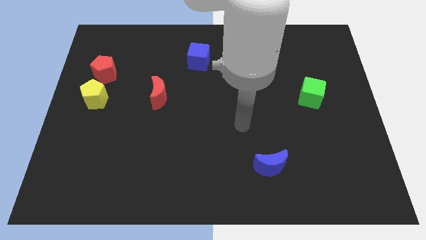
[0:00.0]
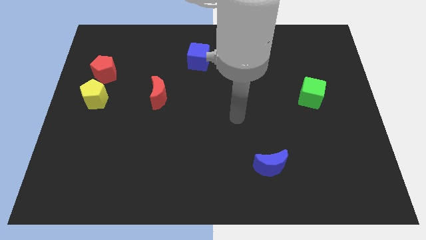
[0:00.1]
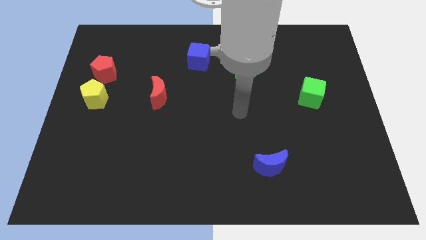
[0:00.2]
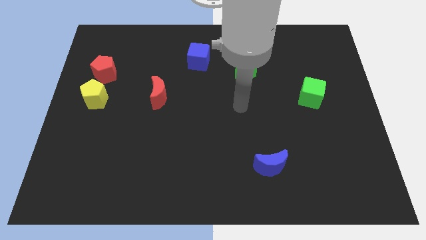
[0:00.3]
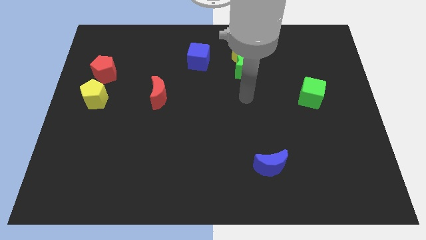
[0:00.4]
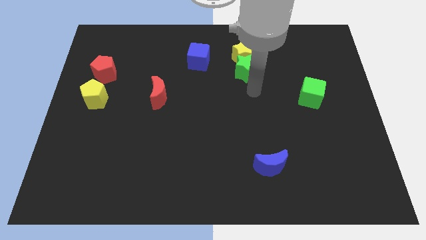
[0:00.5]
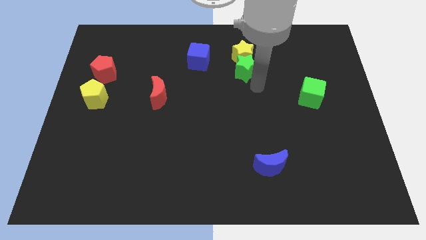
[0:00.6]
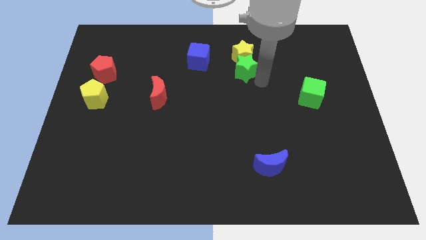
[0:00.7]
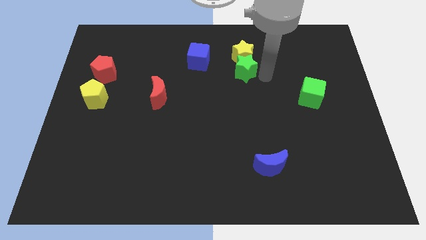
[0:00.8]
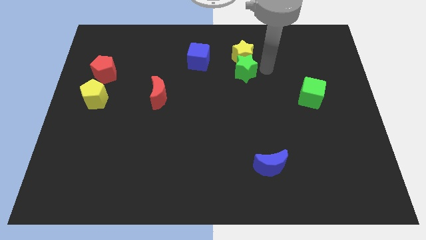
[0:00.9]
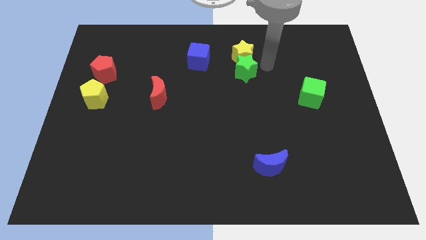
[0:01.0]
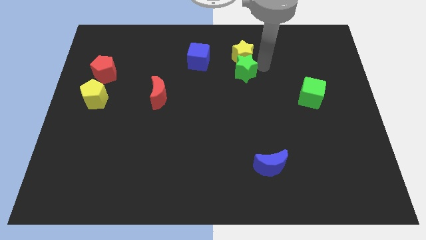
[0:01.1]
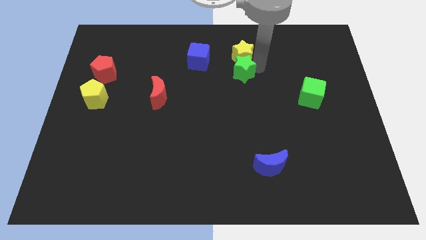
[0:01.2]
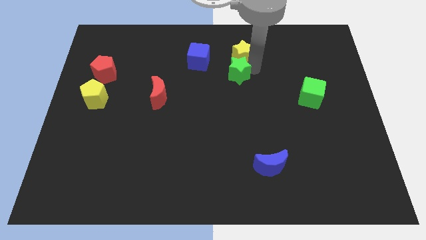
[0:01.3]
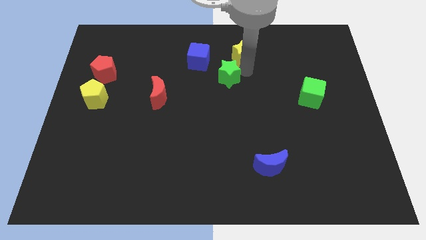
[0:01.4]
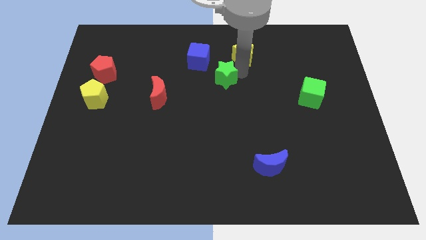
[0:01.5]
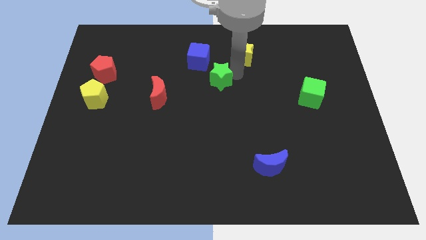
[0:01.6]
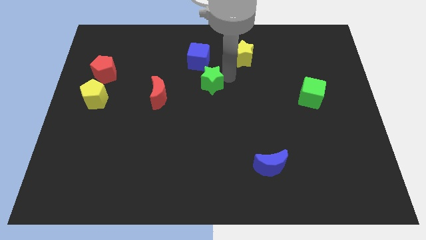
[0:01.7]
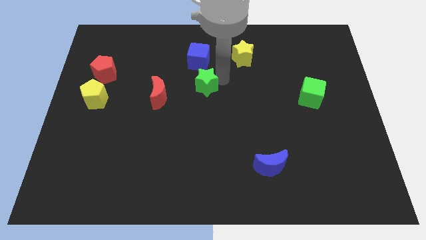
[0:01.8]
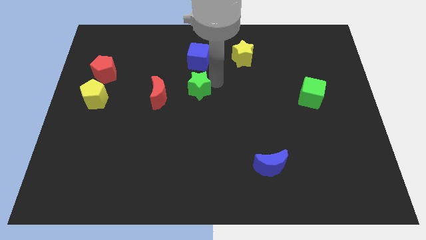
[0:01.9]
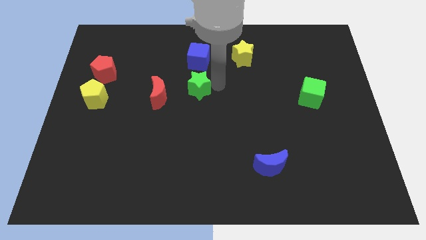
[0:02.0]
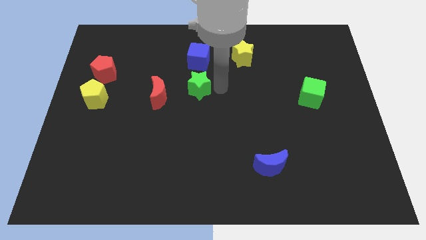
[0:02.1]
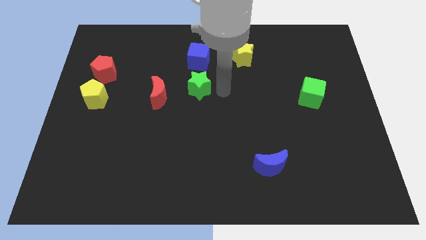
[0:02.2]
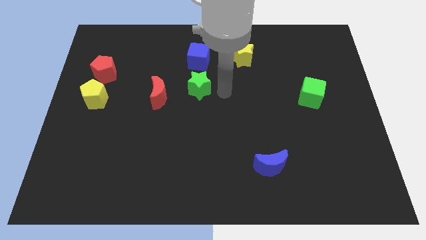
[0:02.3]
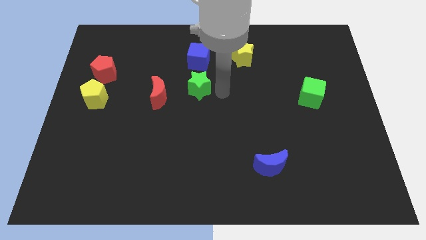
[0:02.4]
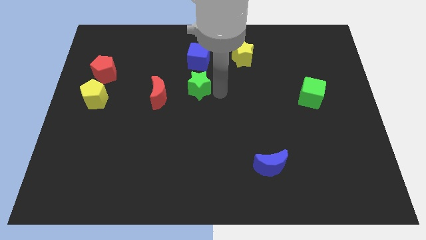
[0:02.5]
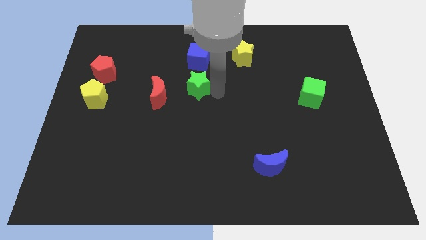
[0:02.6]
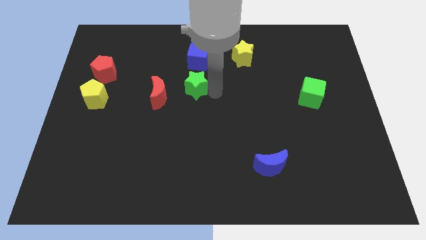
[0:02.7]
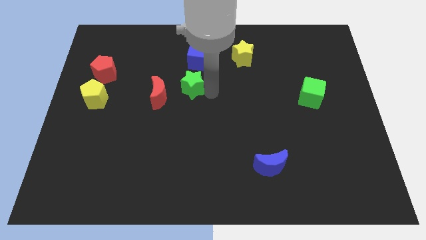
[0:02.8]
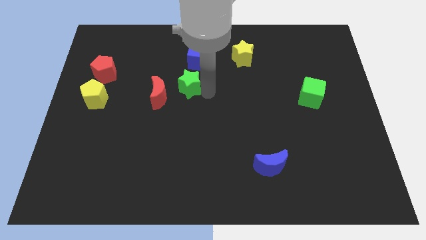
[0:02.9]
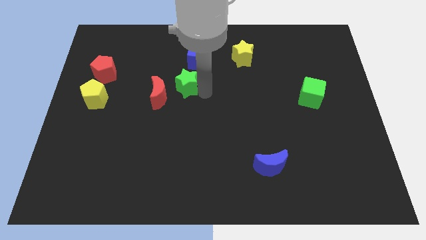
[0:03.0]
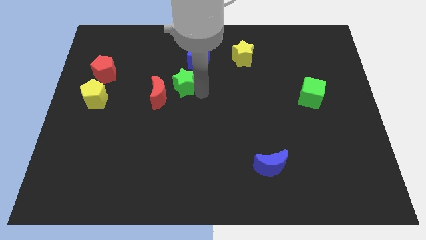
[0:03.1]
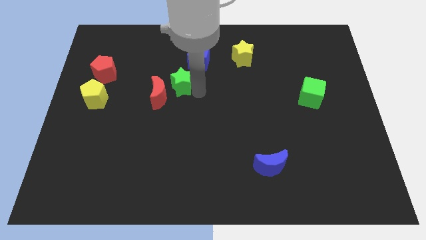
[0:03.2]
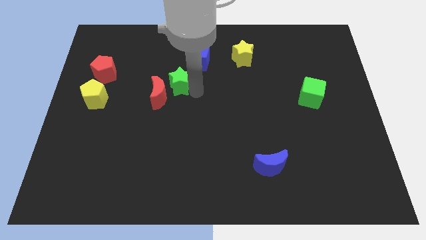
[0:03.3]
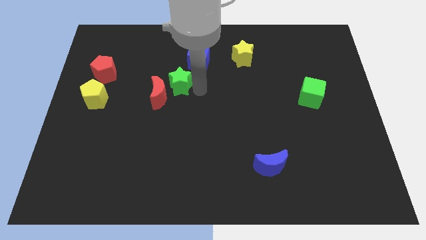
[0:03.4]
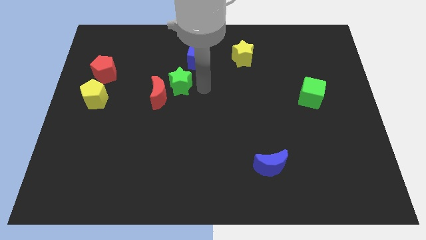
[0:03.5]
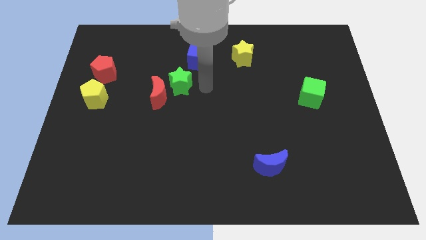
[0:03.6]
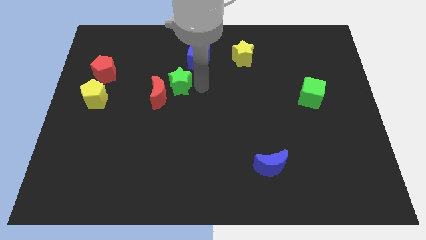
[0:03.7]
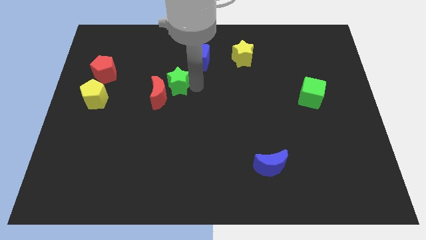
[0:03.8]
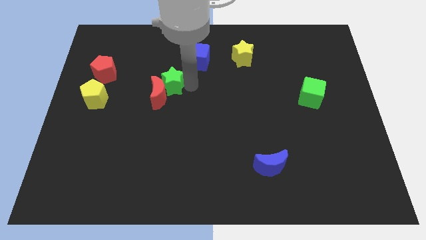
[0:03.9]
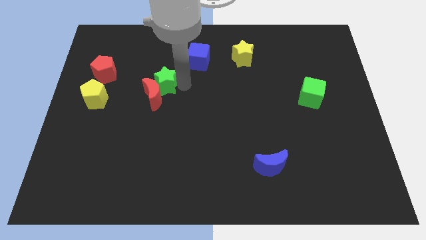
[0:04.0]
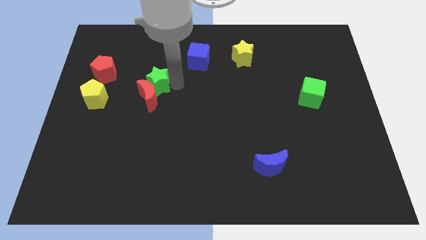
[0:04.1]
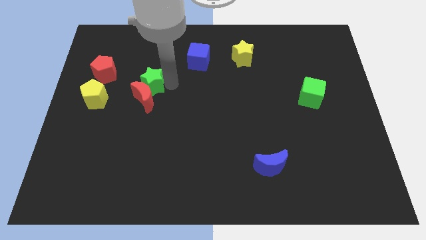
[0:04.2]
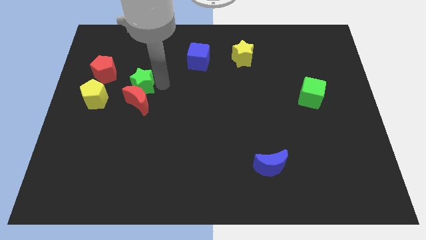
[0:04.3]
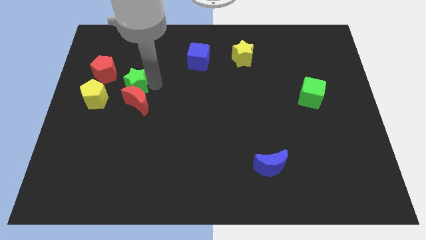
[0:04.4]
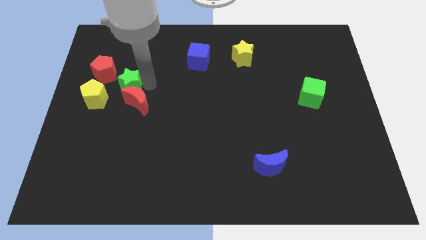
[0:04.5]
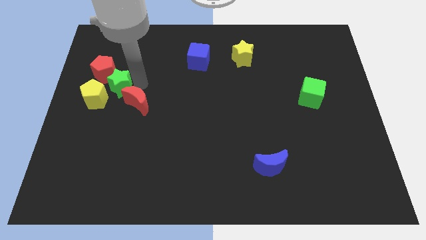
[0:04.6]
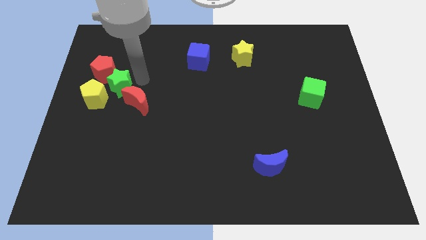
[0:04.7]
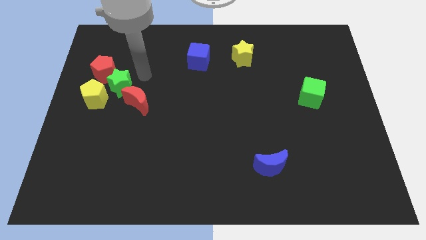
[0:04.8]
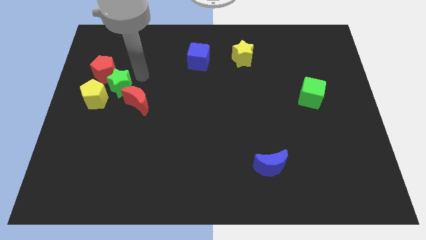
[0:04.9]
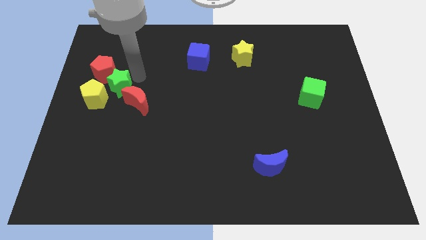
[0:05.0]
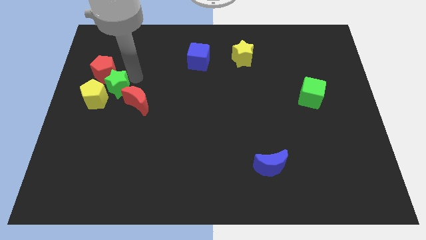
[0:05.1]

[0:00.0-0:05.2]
put the green star close to the yellow pentagon

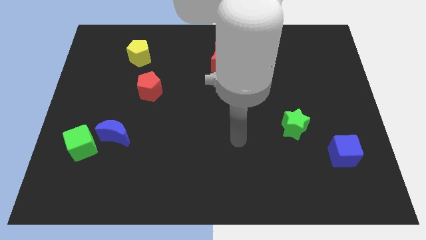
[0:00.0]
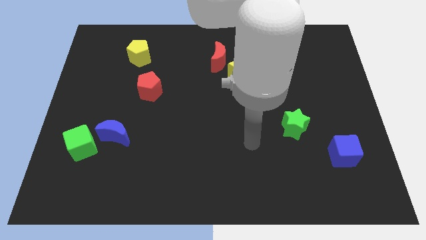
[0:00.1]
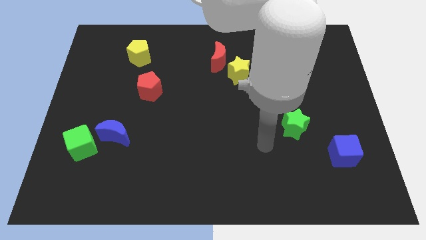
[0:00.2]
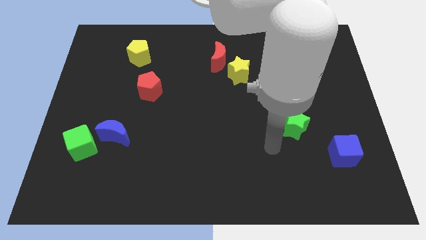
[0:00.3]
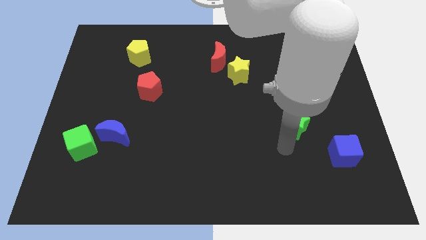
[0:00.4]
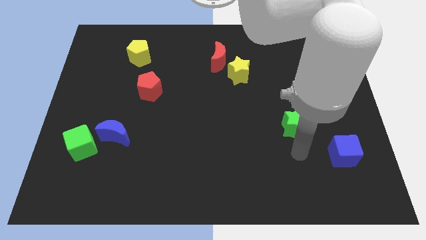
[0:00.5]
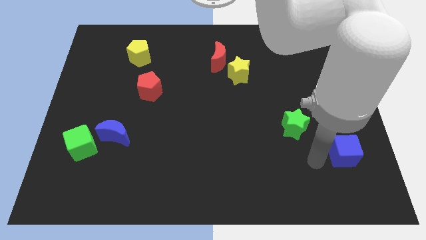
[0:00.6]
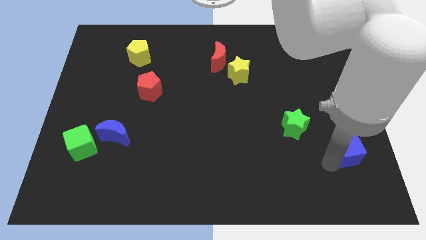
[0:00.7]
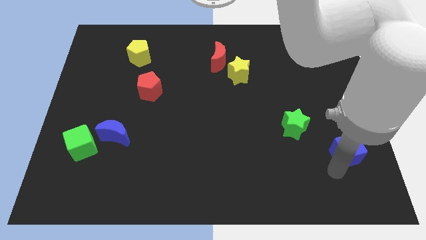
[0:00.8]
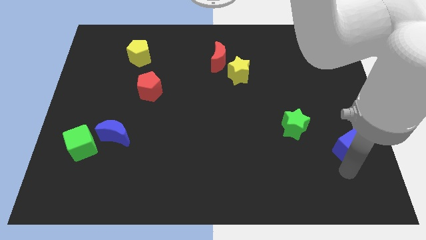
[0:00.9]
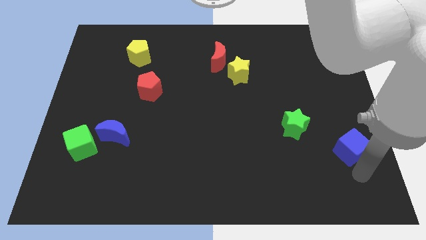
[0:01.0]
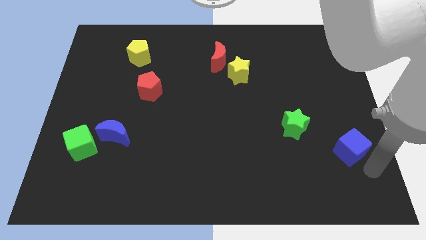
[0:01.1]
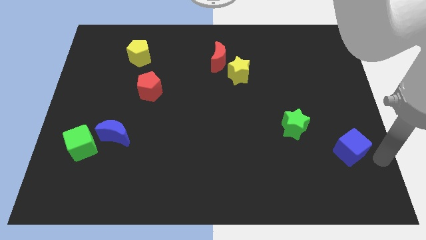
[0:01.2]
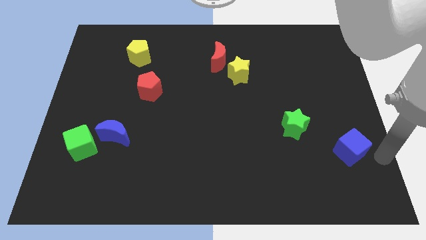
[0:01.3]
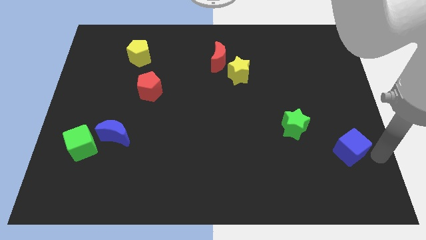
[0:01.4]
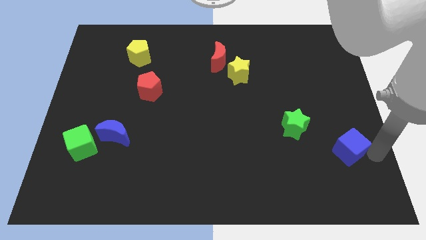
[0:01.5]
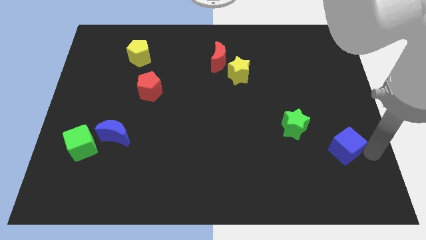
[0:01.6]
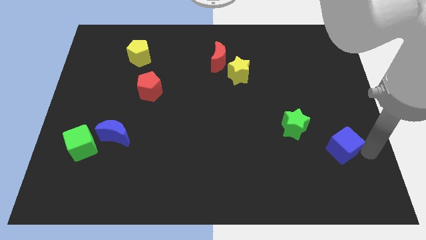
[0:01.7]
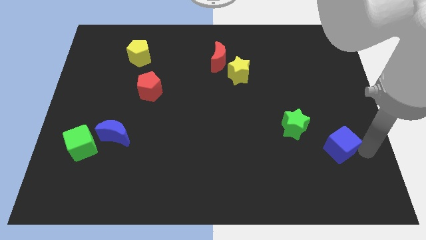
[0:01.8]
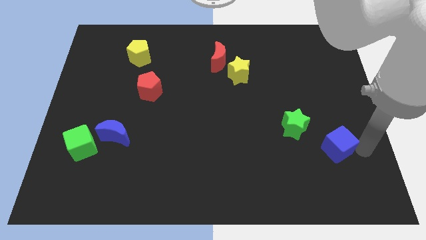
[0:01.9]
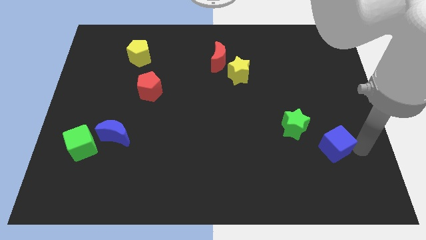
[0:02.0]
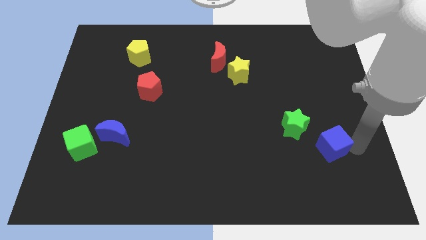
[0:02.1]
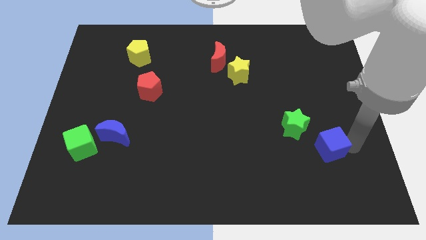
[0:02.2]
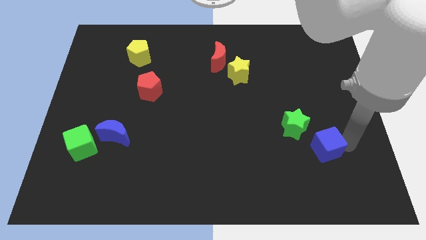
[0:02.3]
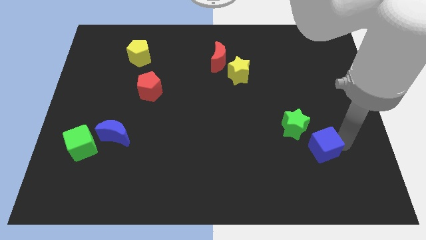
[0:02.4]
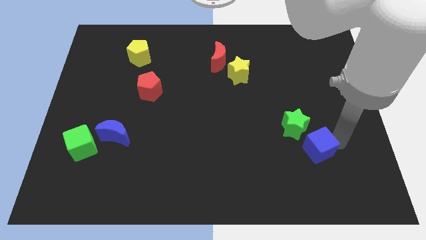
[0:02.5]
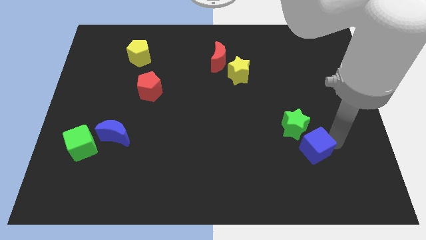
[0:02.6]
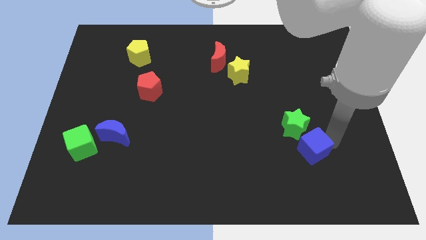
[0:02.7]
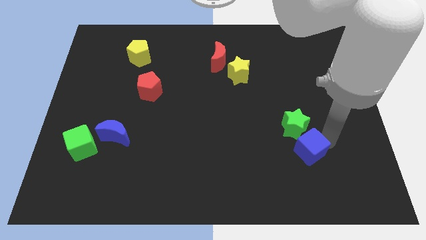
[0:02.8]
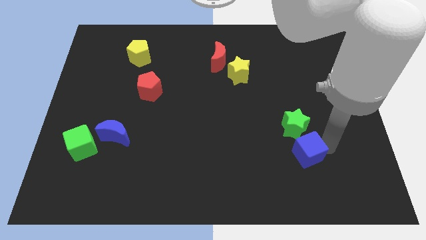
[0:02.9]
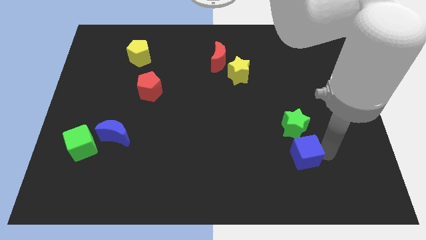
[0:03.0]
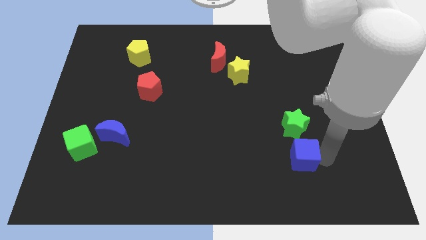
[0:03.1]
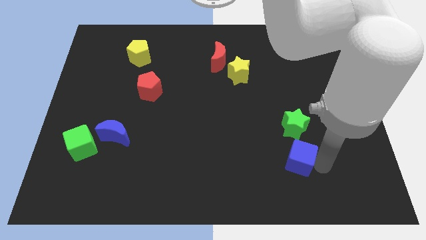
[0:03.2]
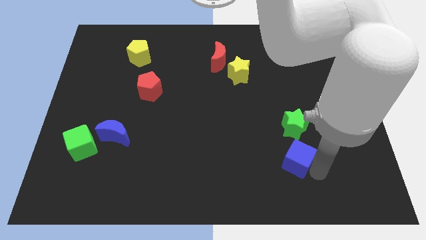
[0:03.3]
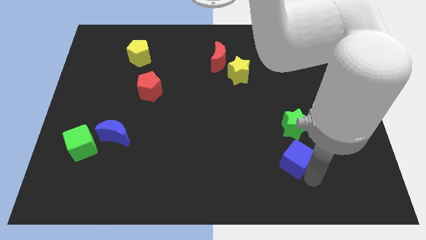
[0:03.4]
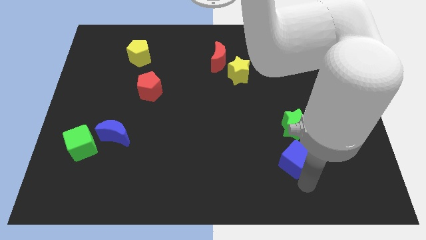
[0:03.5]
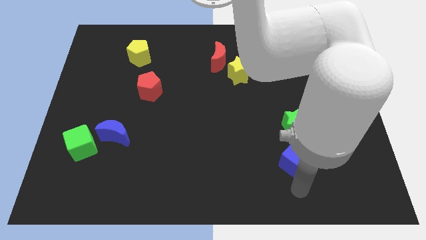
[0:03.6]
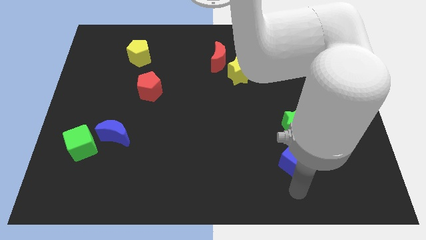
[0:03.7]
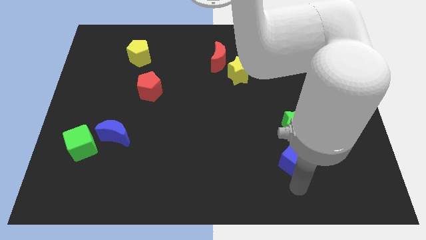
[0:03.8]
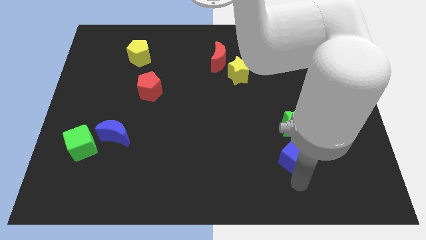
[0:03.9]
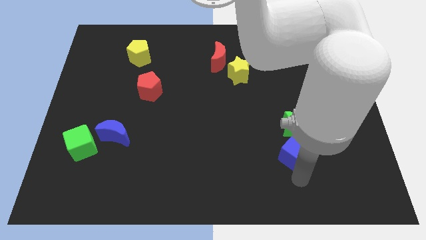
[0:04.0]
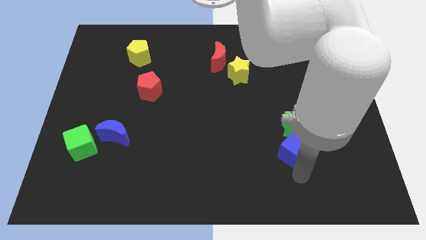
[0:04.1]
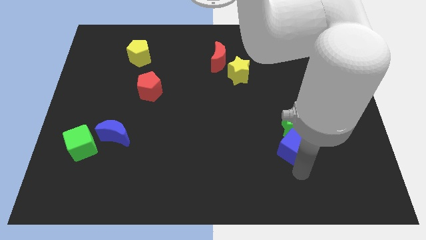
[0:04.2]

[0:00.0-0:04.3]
put the blue cube next to the green star
